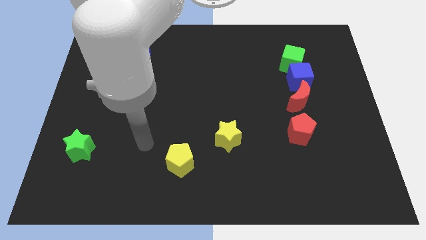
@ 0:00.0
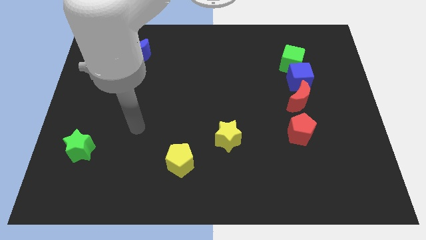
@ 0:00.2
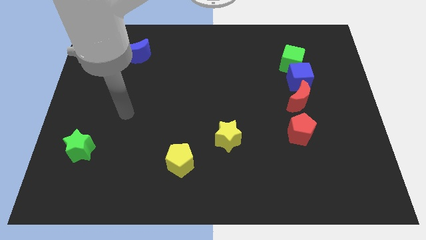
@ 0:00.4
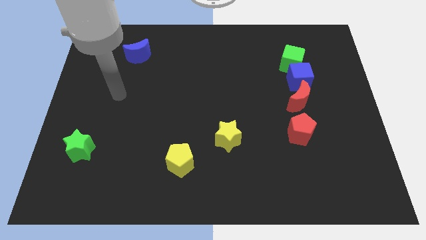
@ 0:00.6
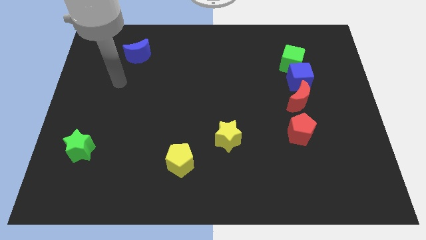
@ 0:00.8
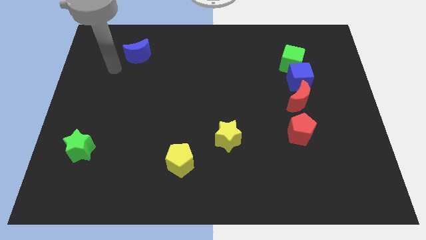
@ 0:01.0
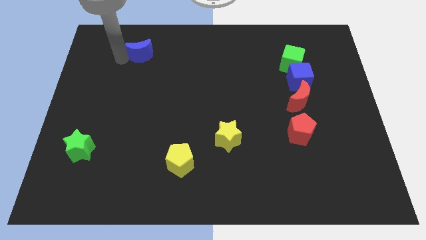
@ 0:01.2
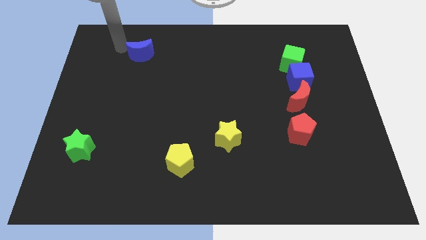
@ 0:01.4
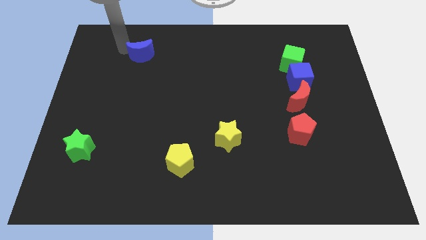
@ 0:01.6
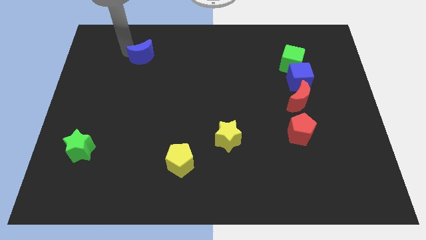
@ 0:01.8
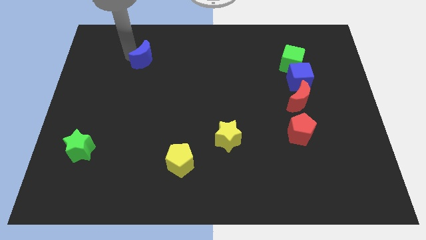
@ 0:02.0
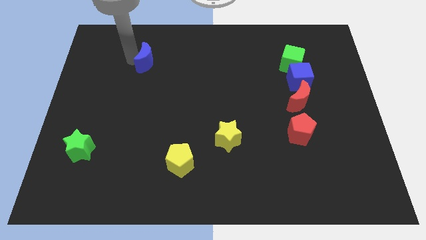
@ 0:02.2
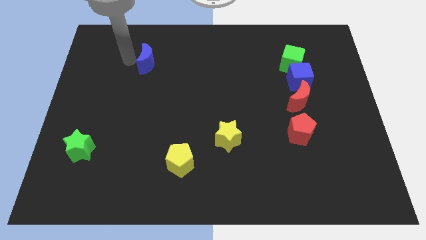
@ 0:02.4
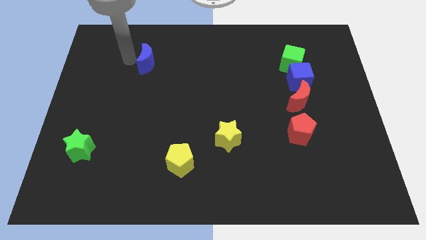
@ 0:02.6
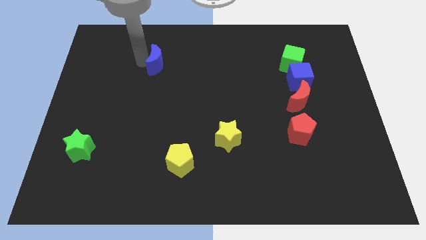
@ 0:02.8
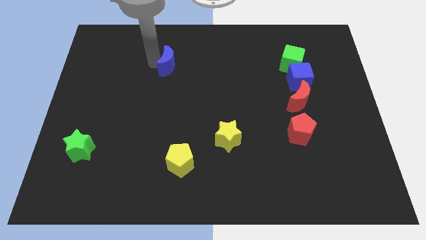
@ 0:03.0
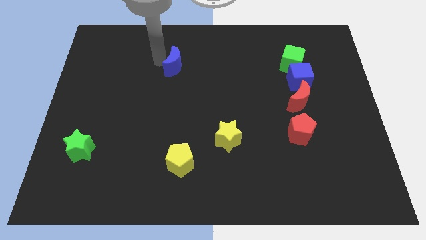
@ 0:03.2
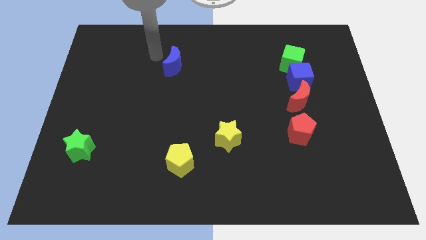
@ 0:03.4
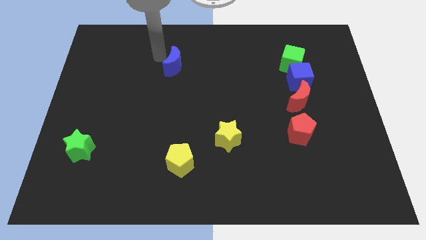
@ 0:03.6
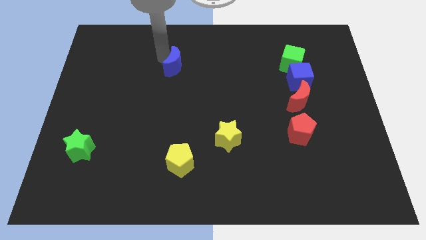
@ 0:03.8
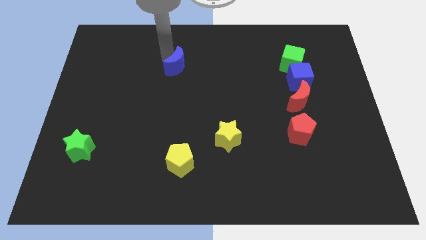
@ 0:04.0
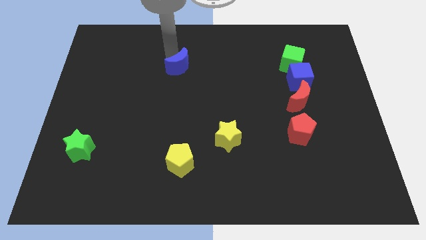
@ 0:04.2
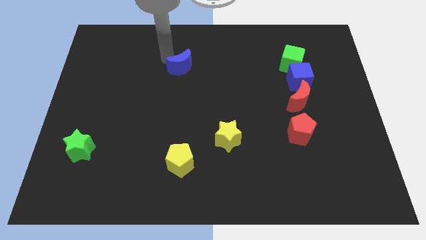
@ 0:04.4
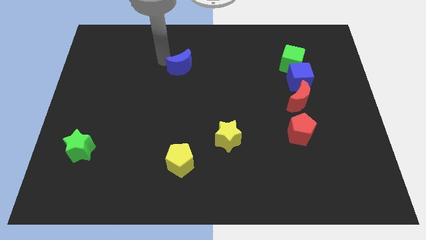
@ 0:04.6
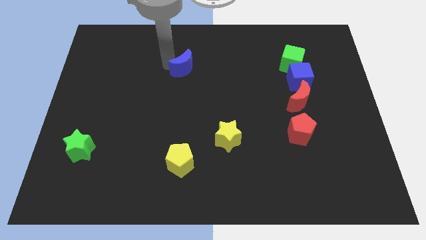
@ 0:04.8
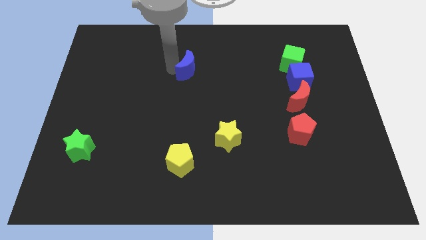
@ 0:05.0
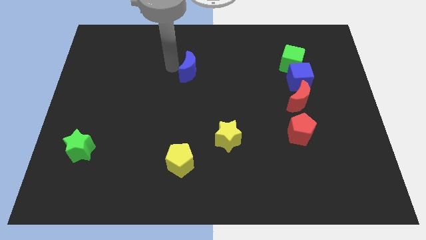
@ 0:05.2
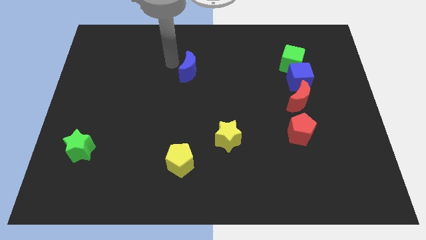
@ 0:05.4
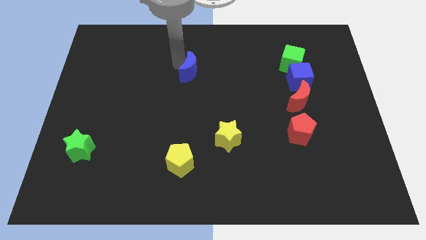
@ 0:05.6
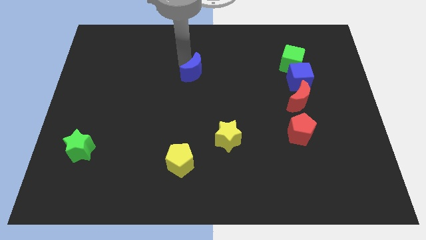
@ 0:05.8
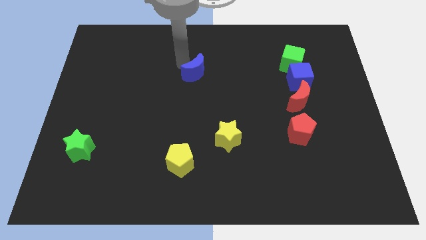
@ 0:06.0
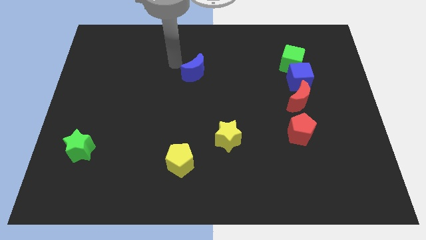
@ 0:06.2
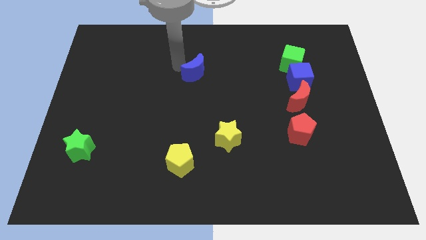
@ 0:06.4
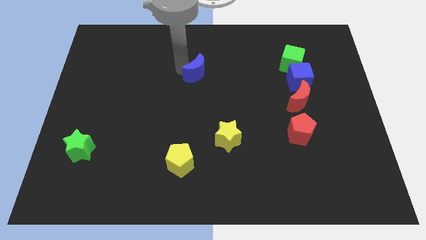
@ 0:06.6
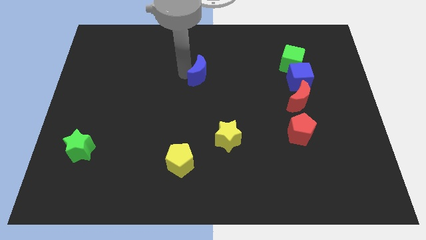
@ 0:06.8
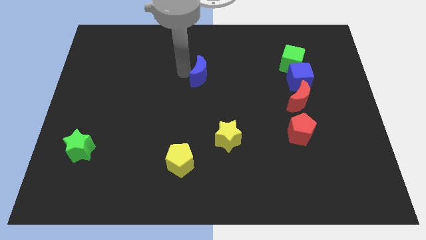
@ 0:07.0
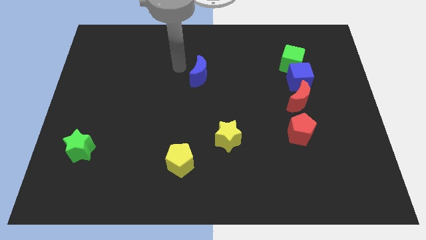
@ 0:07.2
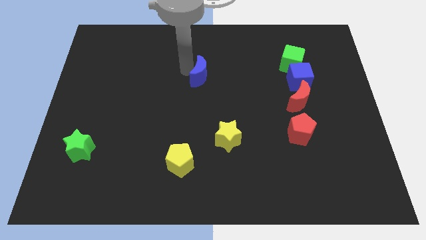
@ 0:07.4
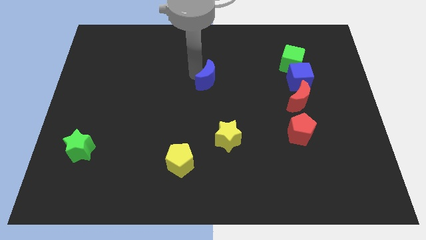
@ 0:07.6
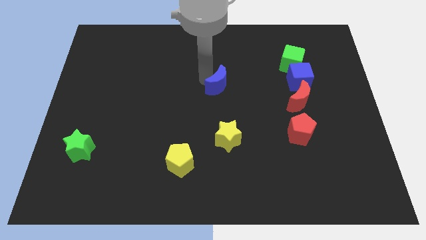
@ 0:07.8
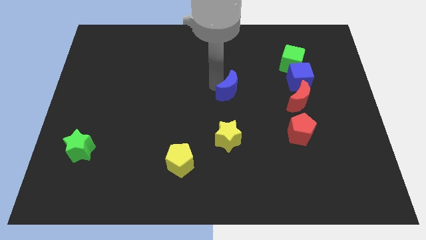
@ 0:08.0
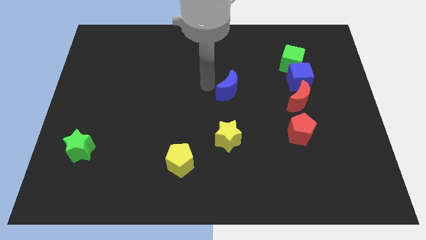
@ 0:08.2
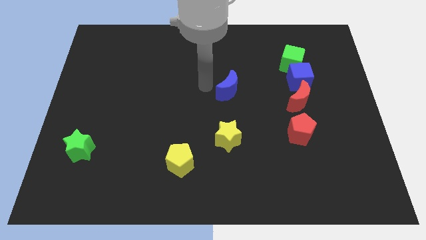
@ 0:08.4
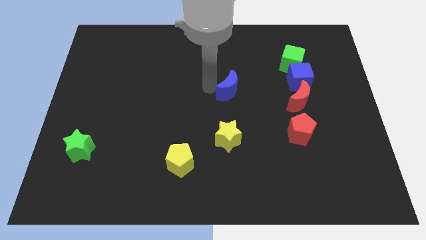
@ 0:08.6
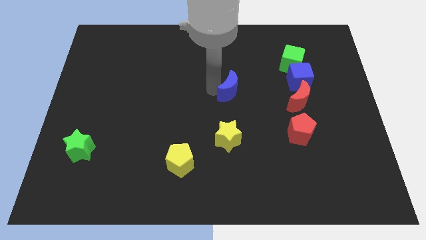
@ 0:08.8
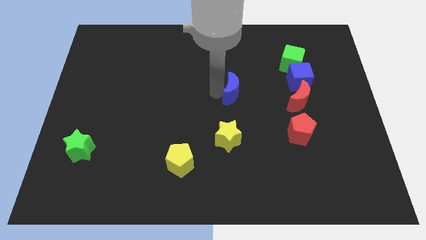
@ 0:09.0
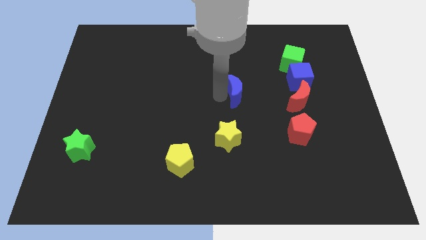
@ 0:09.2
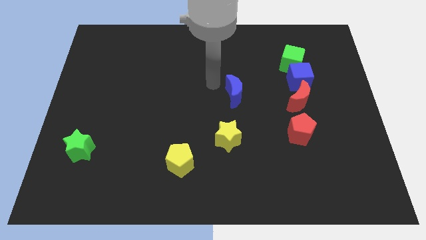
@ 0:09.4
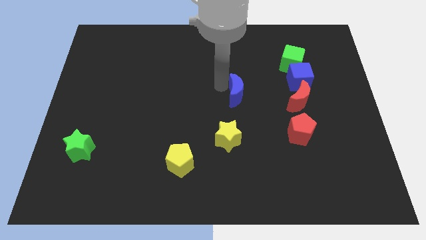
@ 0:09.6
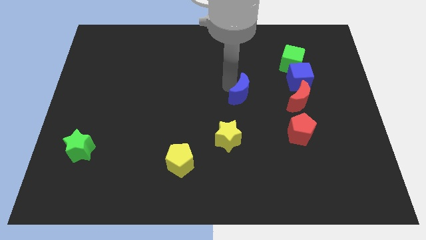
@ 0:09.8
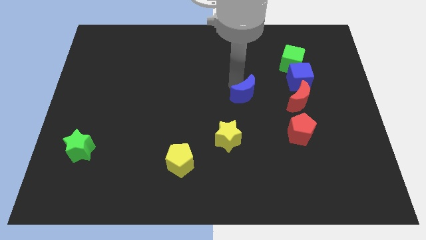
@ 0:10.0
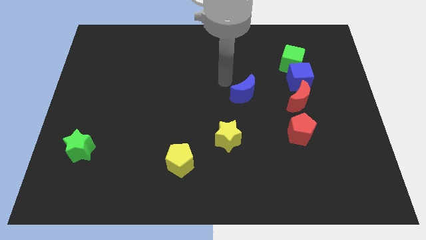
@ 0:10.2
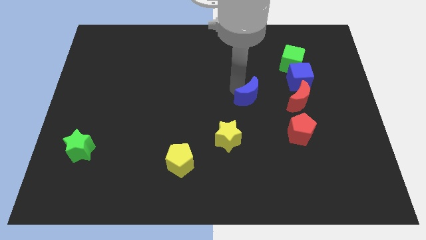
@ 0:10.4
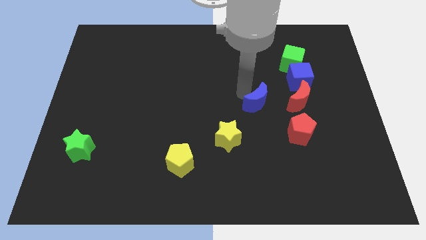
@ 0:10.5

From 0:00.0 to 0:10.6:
move the blue moon to the top left side of the red pentagon

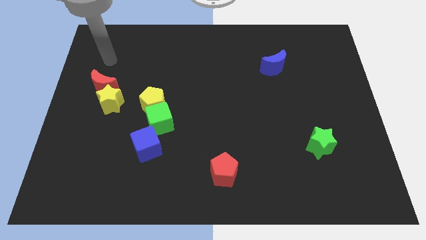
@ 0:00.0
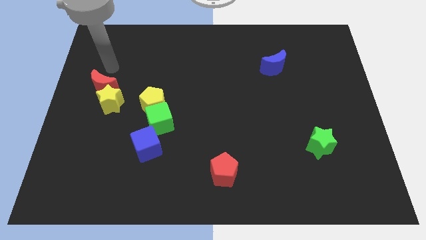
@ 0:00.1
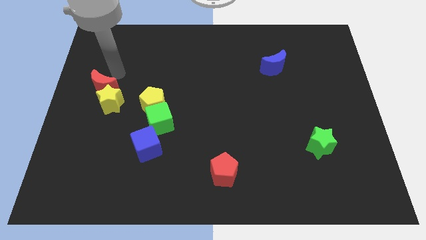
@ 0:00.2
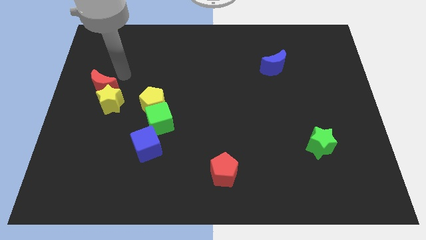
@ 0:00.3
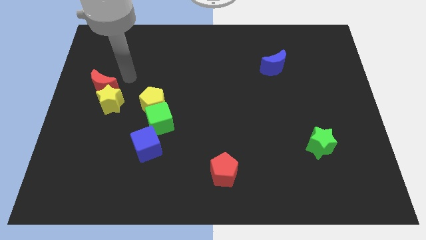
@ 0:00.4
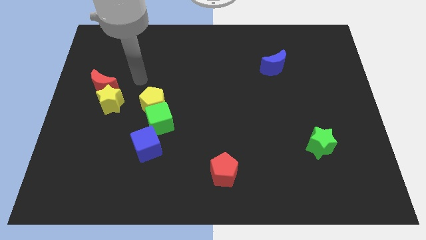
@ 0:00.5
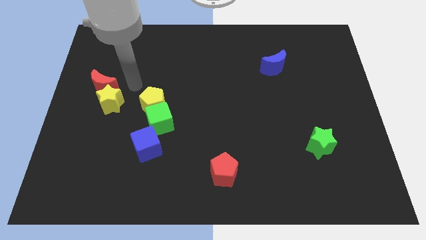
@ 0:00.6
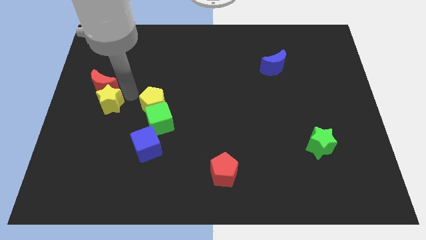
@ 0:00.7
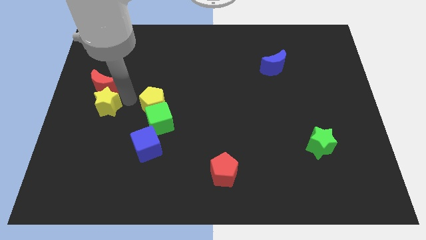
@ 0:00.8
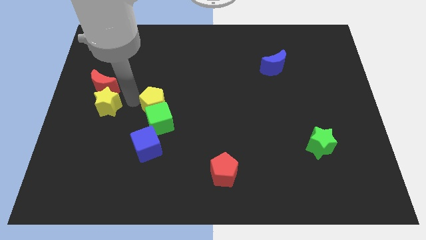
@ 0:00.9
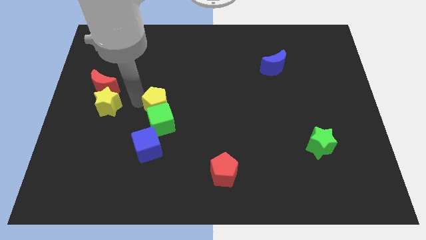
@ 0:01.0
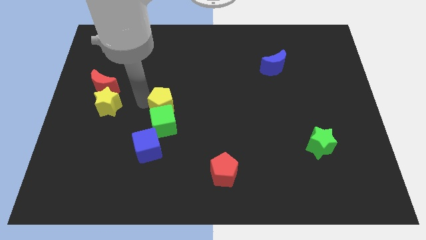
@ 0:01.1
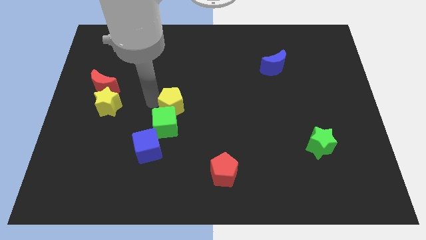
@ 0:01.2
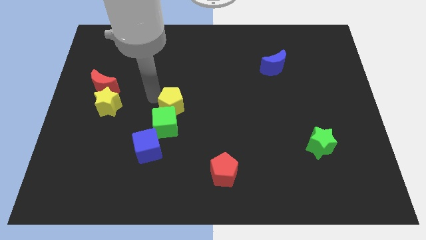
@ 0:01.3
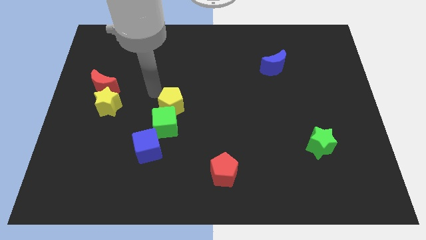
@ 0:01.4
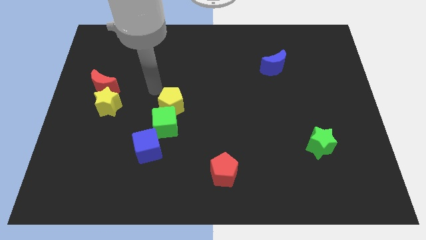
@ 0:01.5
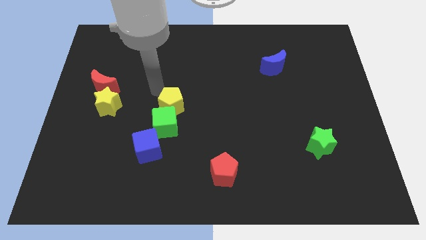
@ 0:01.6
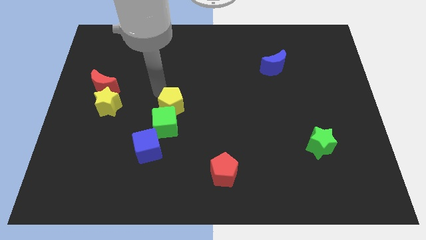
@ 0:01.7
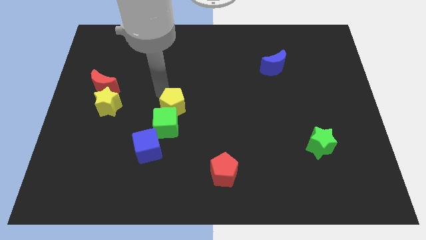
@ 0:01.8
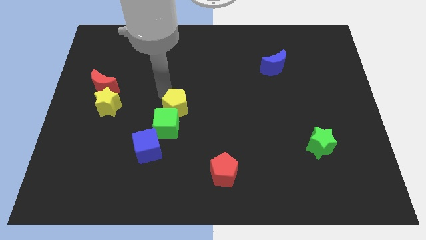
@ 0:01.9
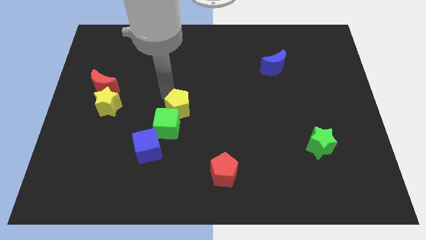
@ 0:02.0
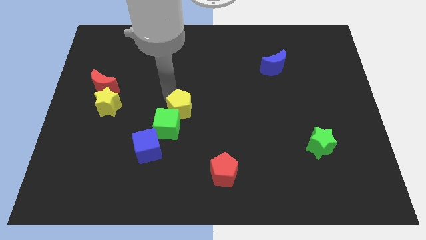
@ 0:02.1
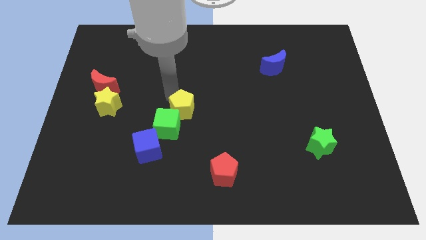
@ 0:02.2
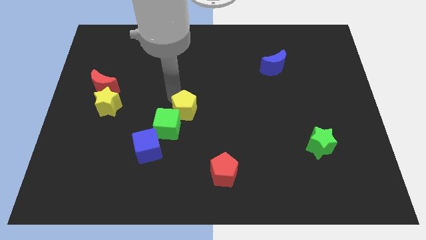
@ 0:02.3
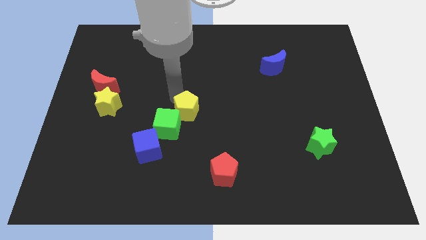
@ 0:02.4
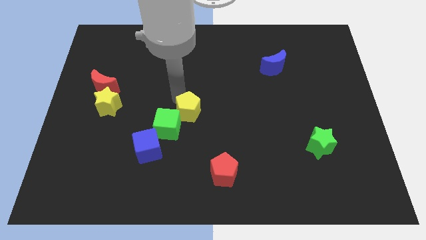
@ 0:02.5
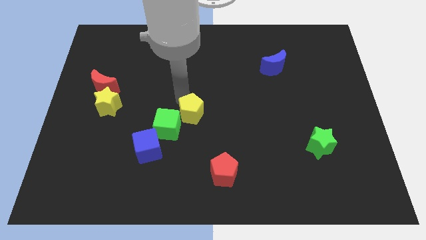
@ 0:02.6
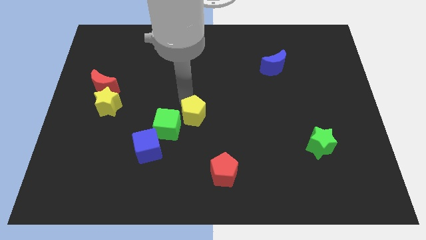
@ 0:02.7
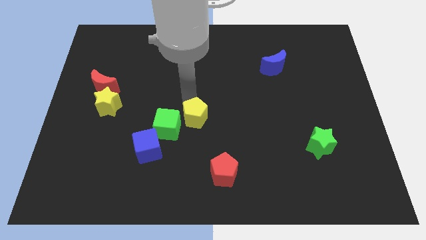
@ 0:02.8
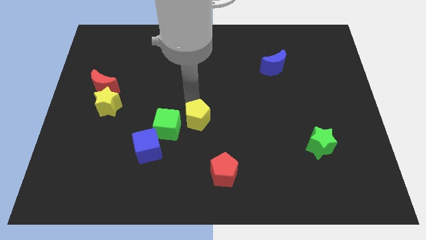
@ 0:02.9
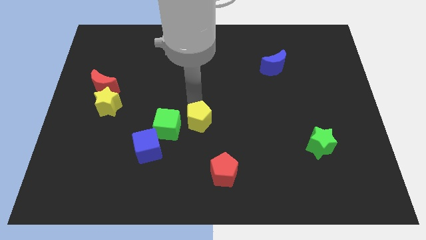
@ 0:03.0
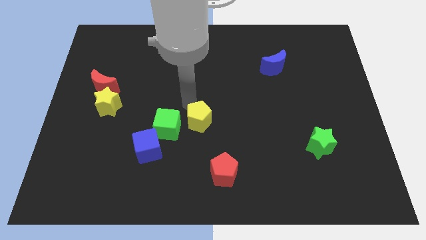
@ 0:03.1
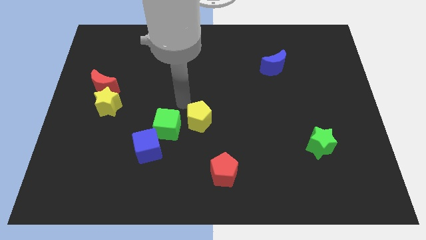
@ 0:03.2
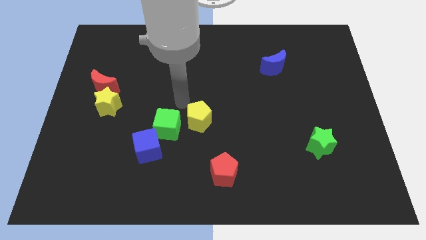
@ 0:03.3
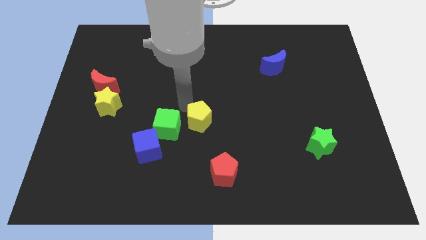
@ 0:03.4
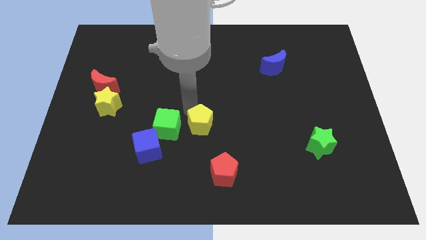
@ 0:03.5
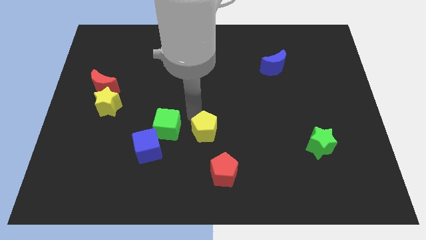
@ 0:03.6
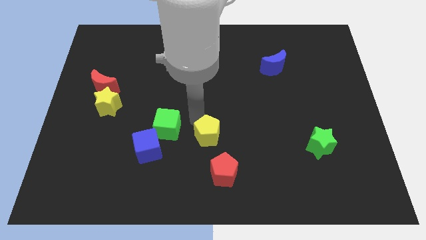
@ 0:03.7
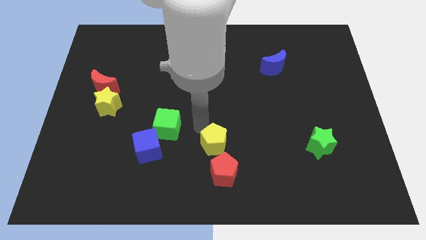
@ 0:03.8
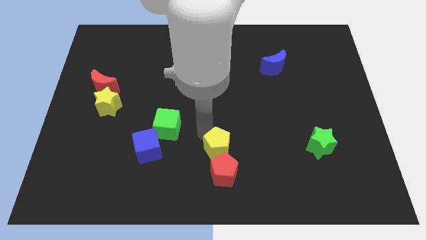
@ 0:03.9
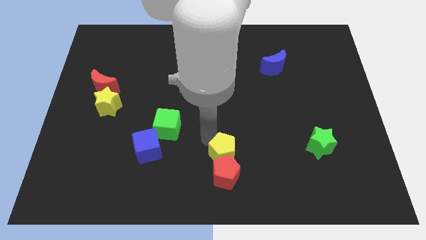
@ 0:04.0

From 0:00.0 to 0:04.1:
push the yellow pentagon to the top right side of the red pentagon
